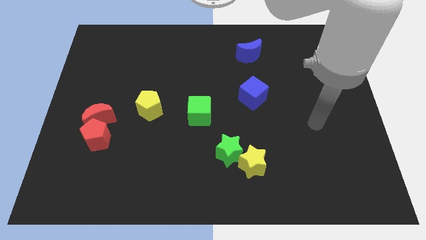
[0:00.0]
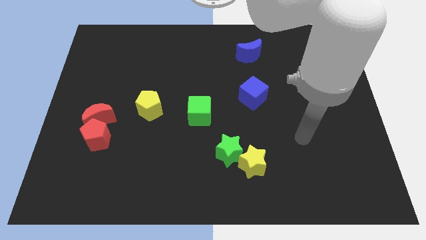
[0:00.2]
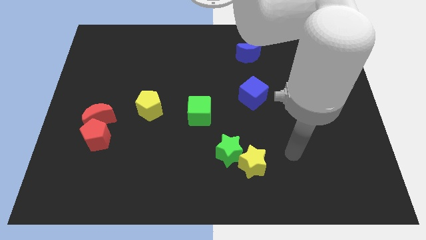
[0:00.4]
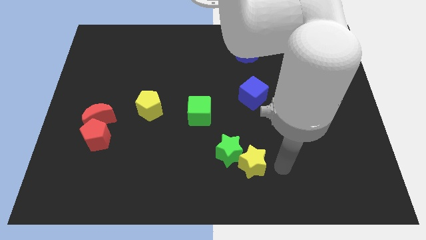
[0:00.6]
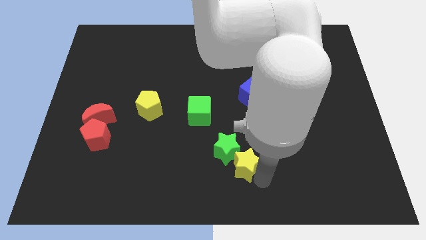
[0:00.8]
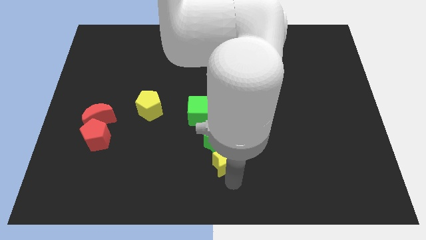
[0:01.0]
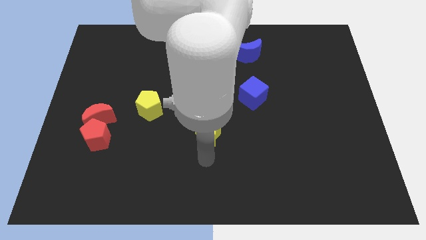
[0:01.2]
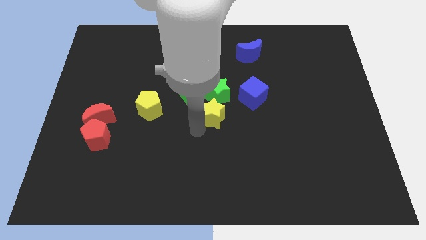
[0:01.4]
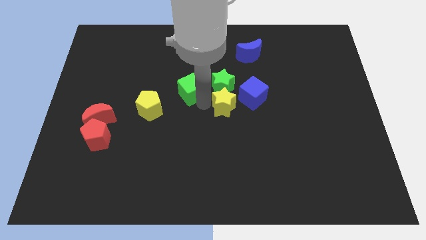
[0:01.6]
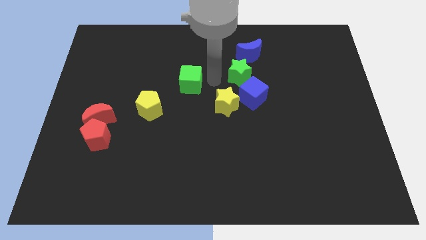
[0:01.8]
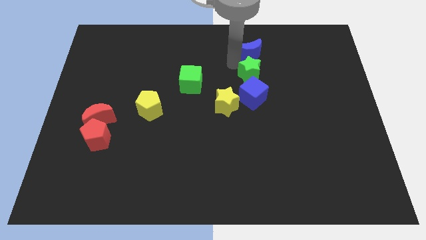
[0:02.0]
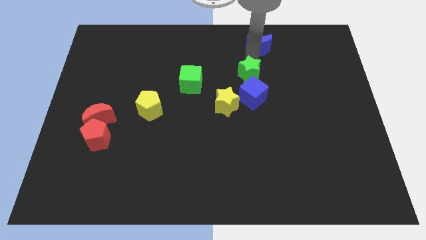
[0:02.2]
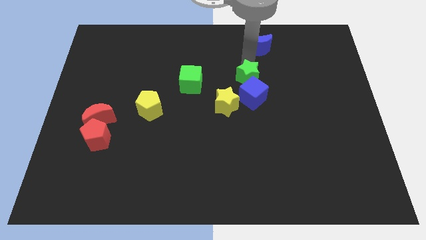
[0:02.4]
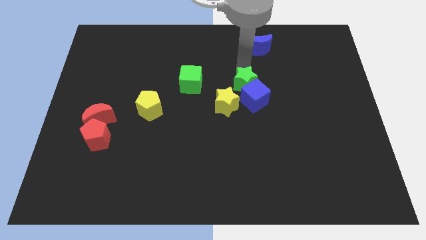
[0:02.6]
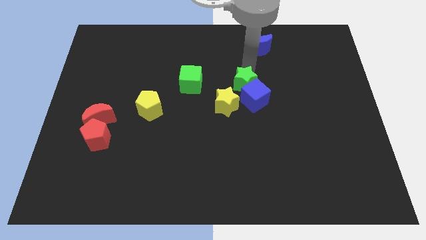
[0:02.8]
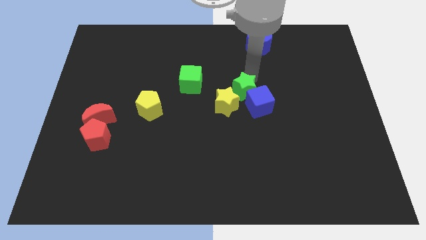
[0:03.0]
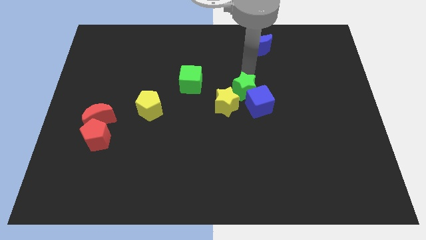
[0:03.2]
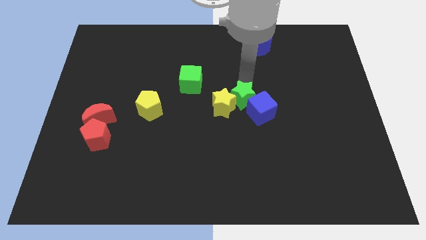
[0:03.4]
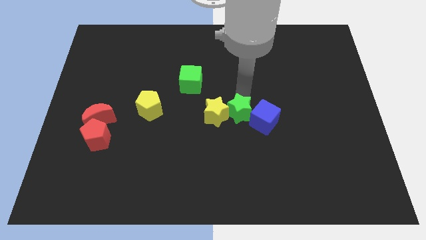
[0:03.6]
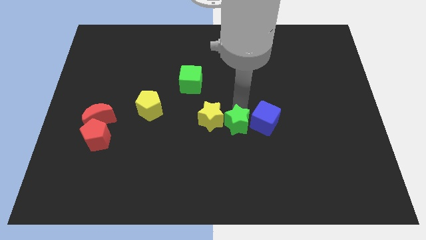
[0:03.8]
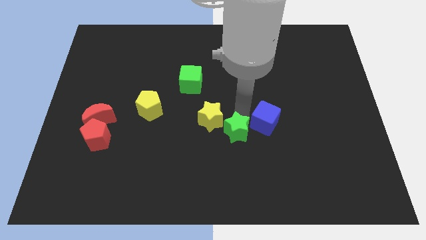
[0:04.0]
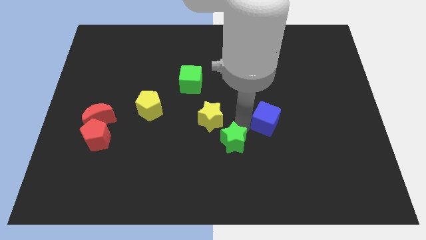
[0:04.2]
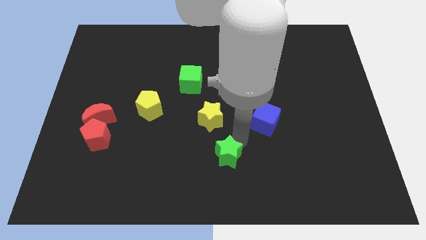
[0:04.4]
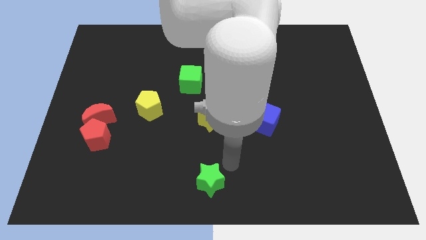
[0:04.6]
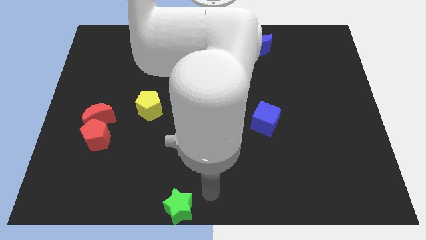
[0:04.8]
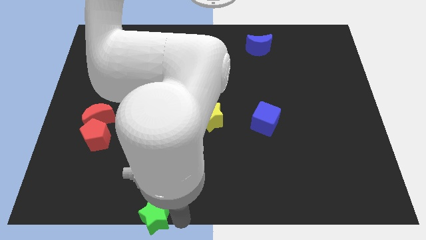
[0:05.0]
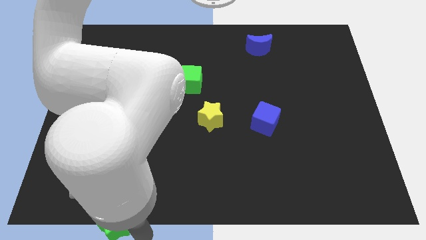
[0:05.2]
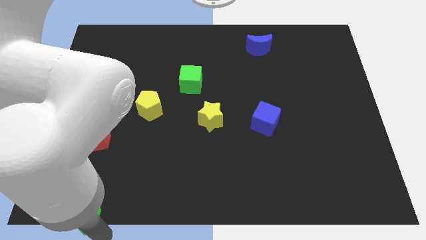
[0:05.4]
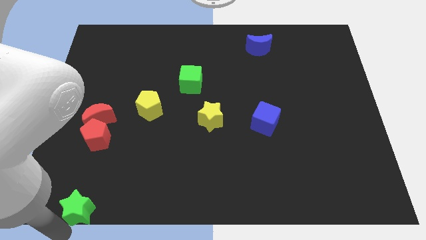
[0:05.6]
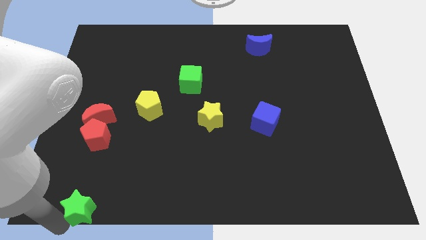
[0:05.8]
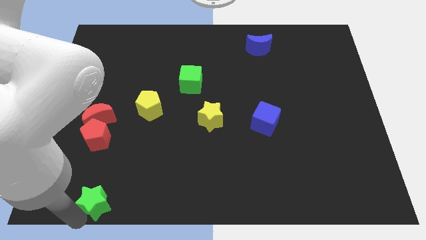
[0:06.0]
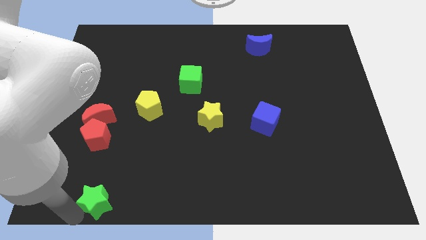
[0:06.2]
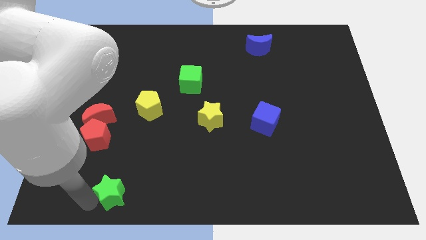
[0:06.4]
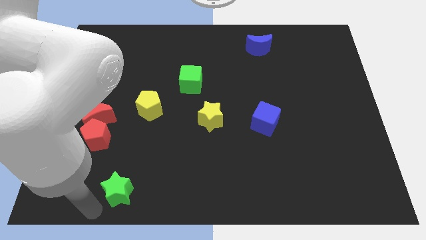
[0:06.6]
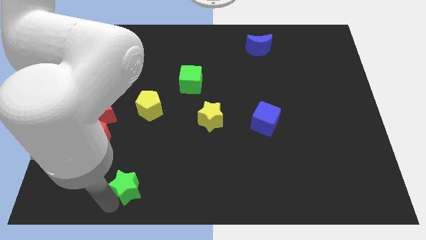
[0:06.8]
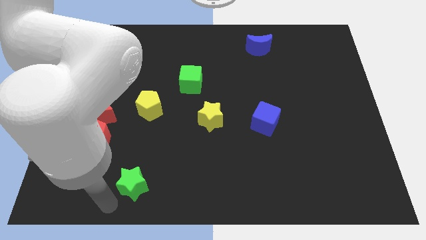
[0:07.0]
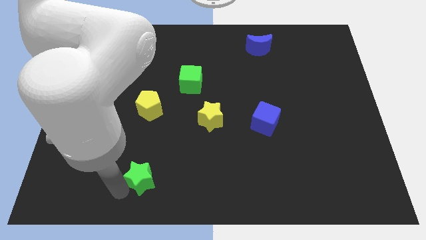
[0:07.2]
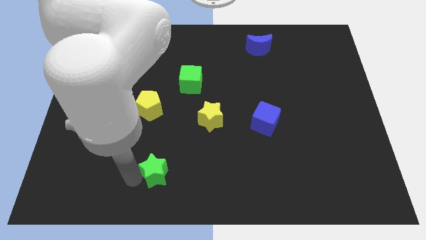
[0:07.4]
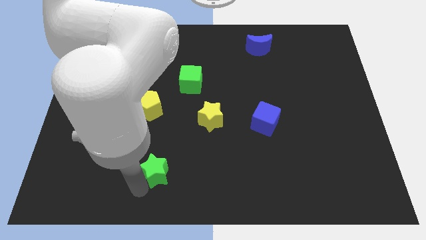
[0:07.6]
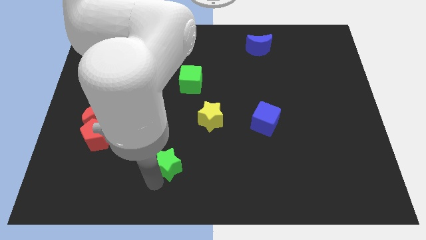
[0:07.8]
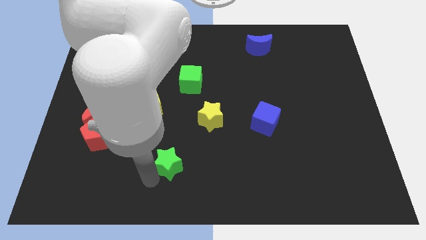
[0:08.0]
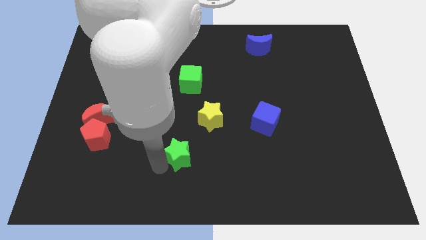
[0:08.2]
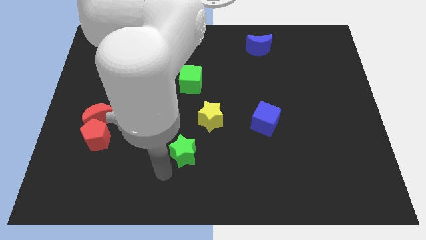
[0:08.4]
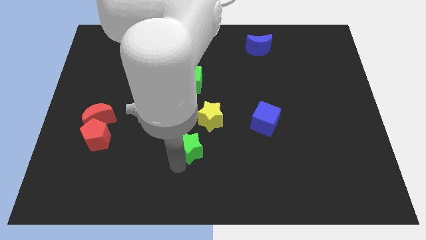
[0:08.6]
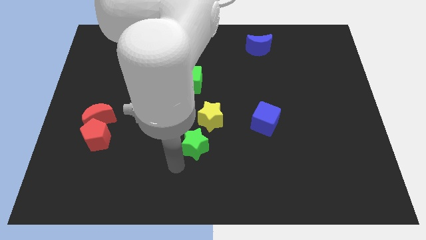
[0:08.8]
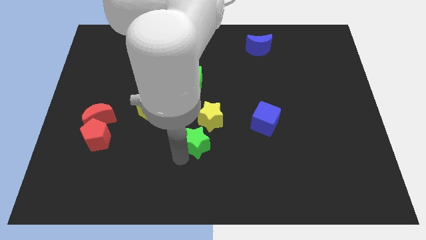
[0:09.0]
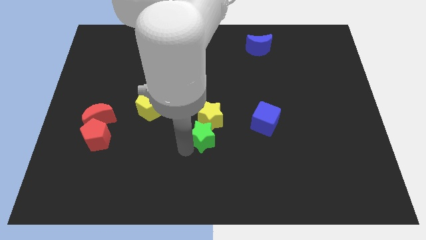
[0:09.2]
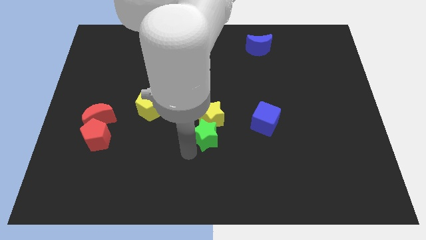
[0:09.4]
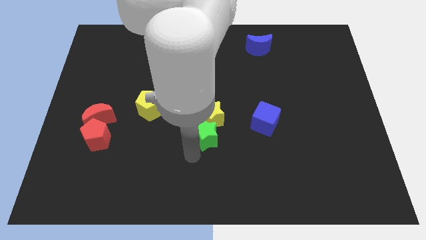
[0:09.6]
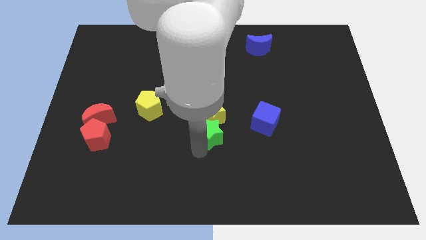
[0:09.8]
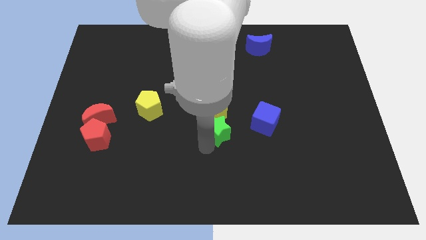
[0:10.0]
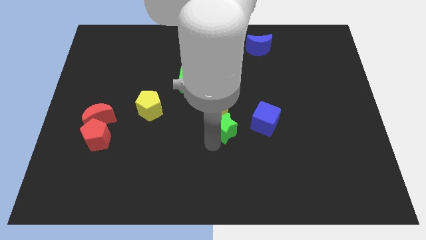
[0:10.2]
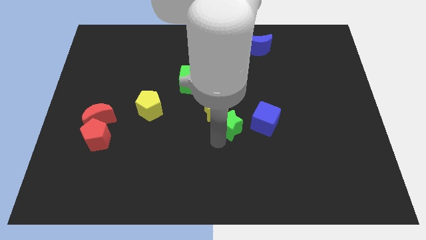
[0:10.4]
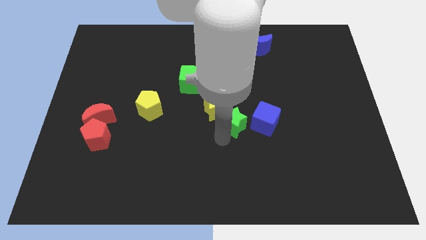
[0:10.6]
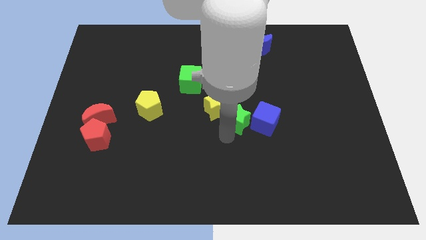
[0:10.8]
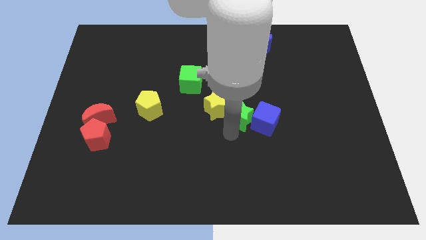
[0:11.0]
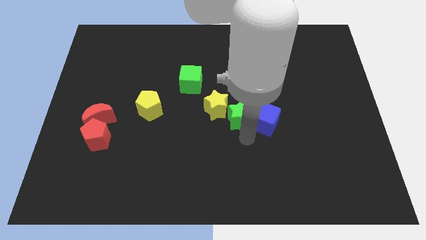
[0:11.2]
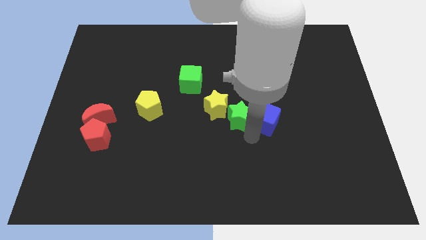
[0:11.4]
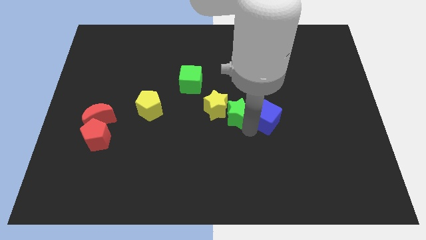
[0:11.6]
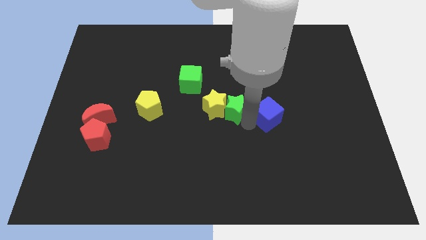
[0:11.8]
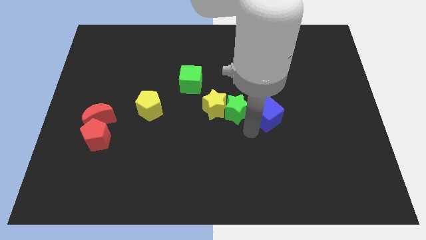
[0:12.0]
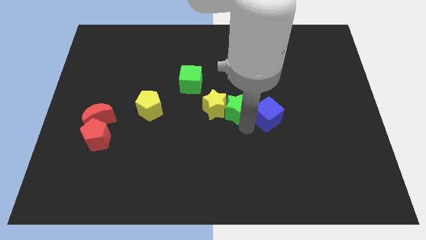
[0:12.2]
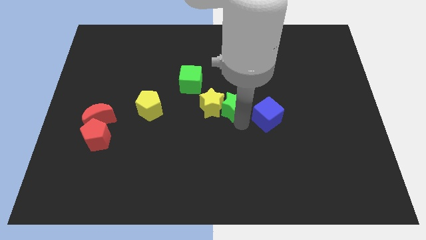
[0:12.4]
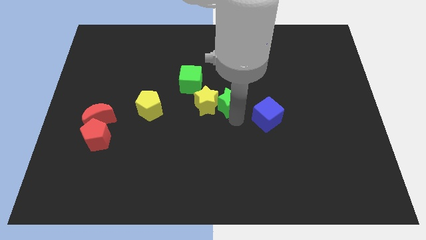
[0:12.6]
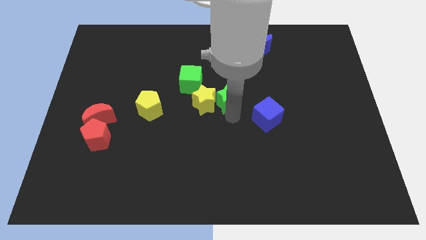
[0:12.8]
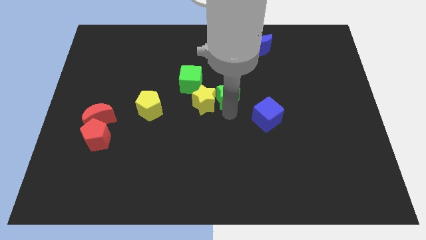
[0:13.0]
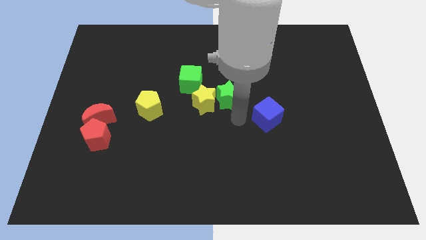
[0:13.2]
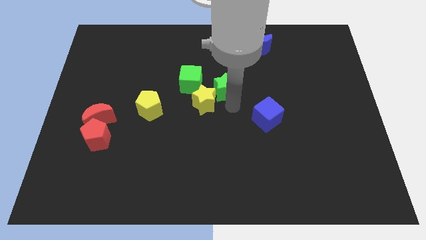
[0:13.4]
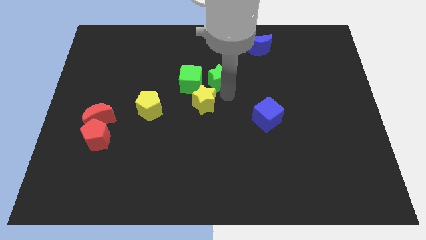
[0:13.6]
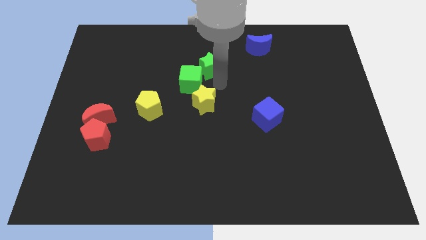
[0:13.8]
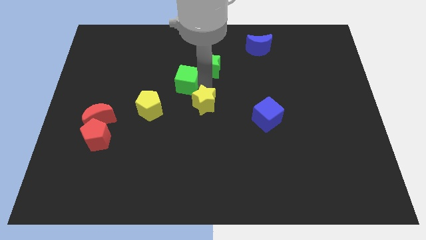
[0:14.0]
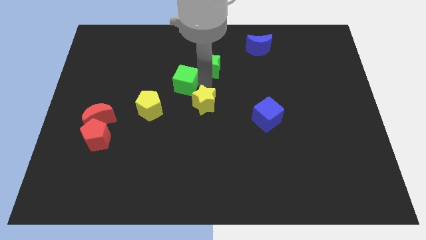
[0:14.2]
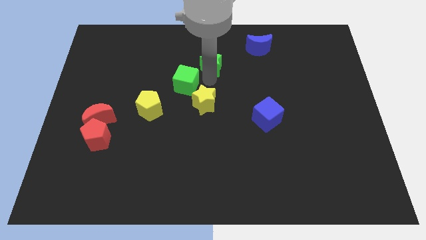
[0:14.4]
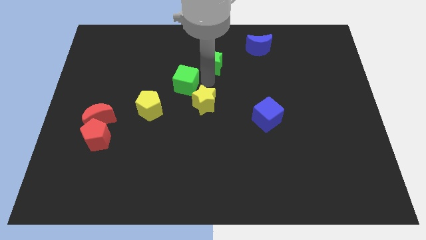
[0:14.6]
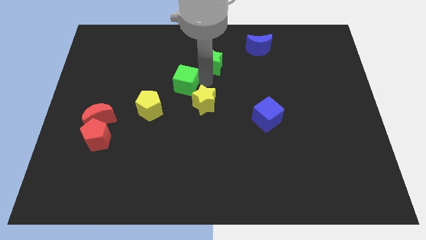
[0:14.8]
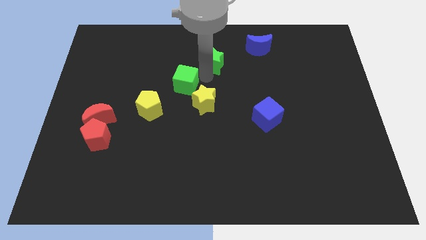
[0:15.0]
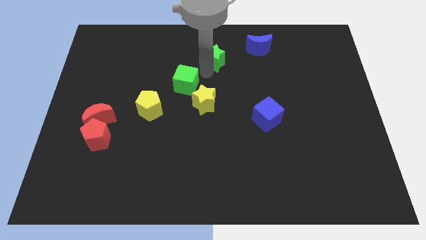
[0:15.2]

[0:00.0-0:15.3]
move the green star to the left side of the blue moon

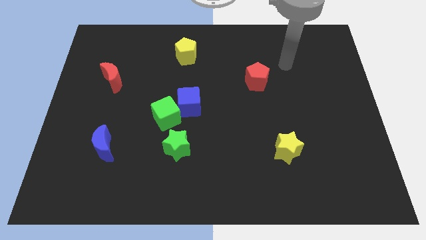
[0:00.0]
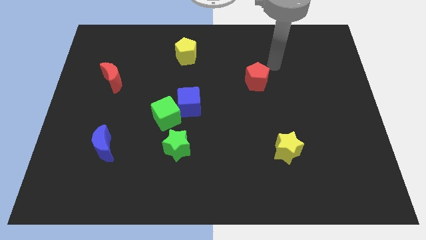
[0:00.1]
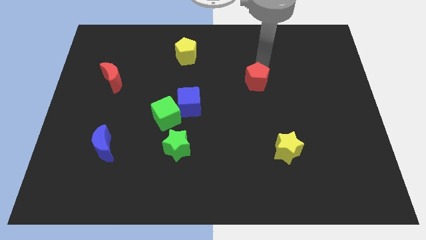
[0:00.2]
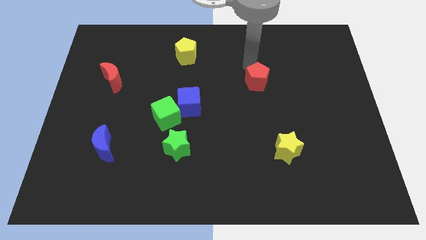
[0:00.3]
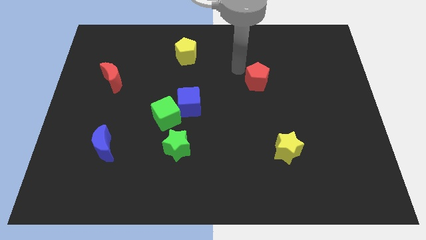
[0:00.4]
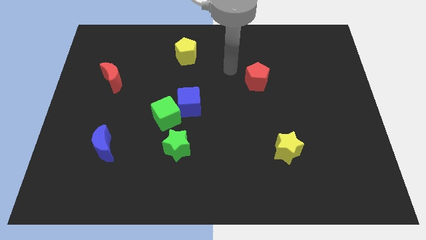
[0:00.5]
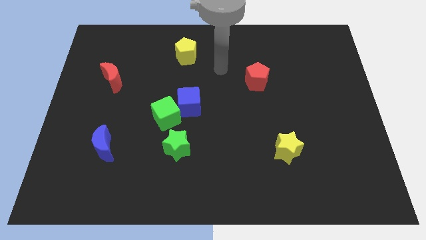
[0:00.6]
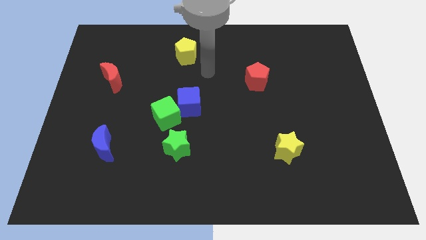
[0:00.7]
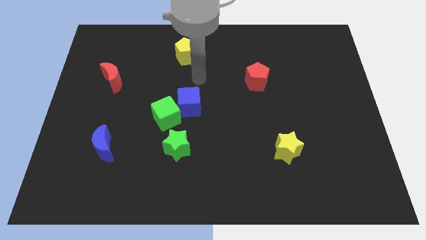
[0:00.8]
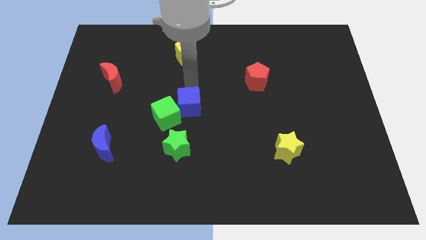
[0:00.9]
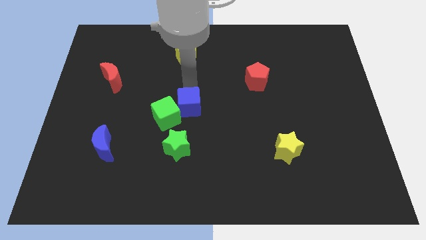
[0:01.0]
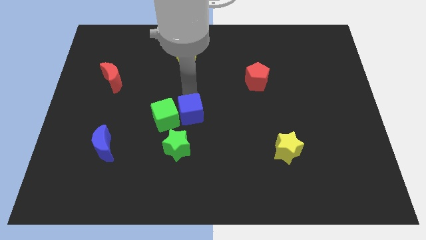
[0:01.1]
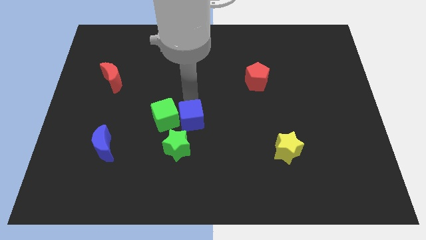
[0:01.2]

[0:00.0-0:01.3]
put the blue cube to the bottom right side of the green cube
